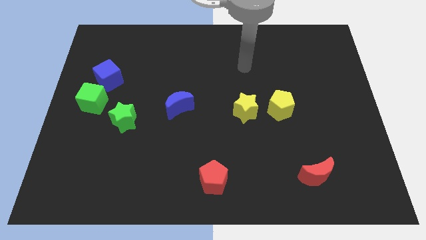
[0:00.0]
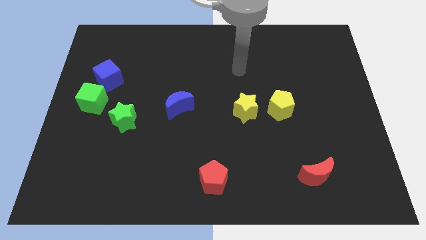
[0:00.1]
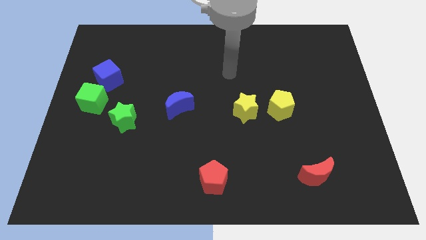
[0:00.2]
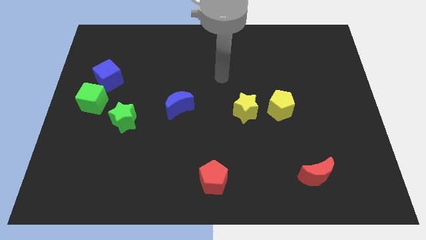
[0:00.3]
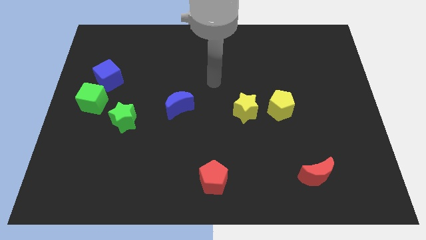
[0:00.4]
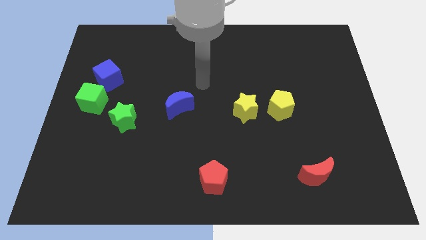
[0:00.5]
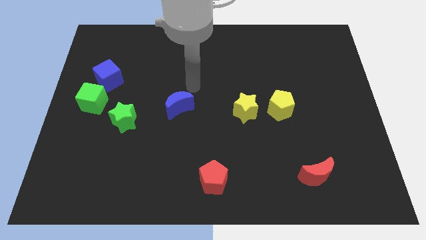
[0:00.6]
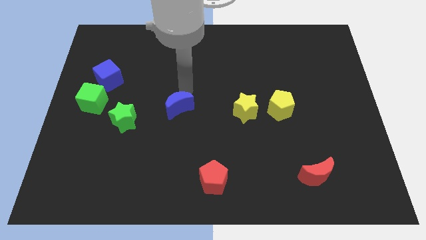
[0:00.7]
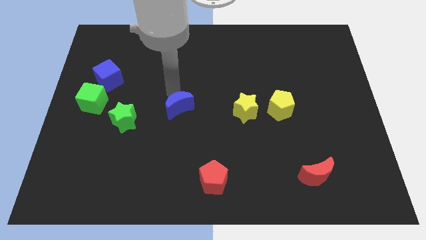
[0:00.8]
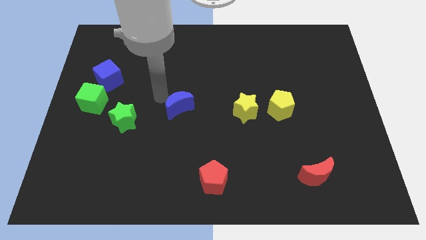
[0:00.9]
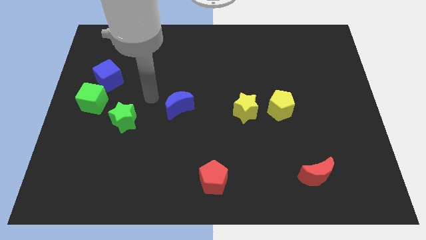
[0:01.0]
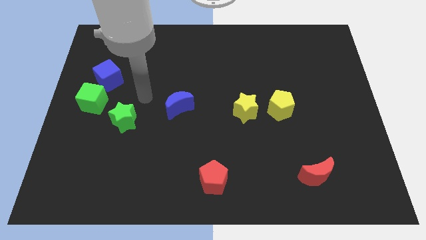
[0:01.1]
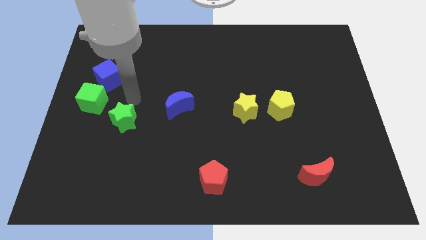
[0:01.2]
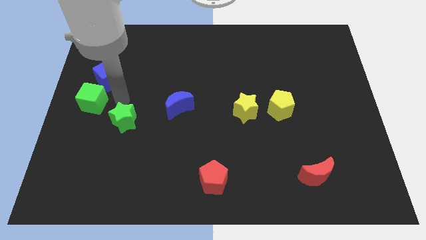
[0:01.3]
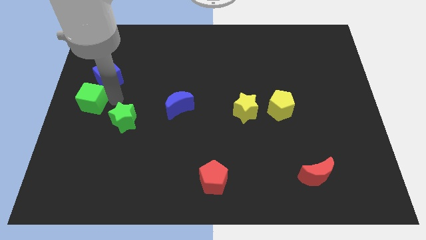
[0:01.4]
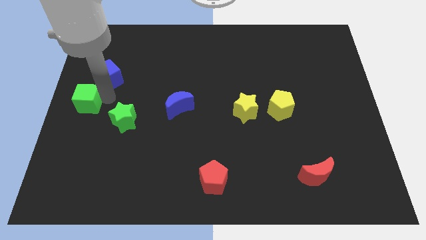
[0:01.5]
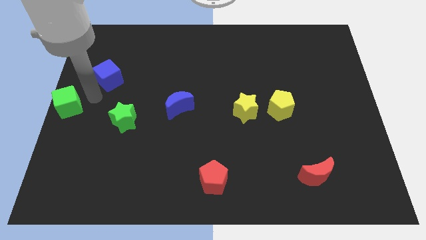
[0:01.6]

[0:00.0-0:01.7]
pull the blue cube apart from the green cube

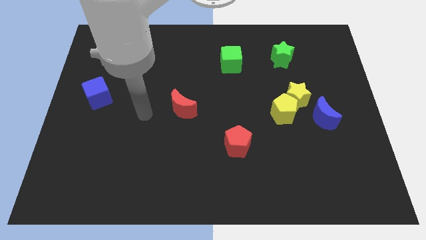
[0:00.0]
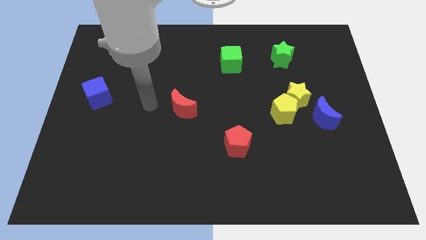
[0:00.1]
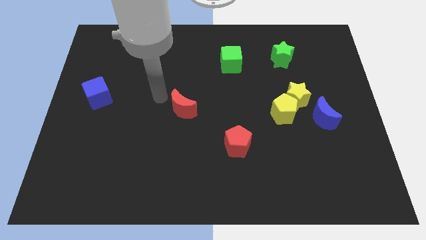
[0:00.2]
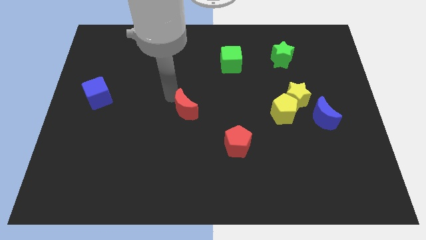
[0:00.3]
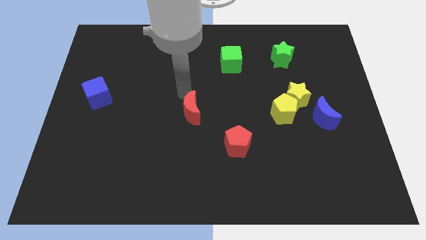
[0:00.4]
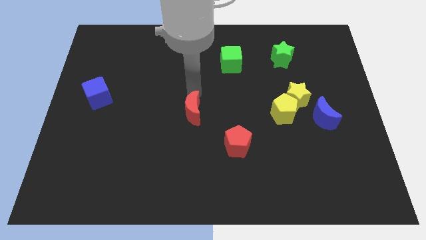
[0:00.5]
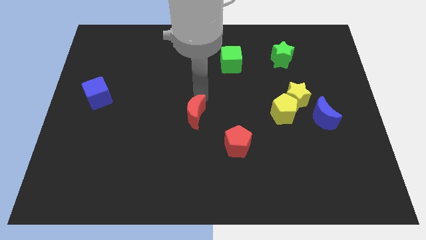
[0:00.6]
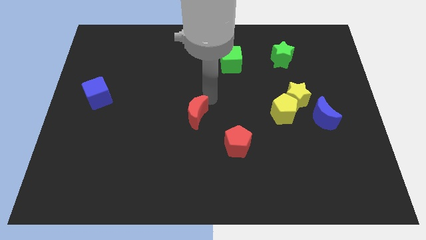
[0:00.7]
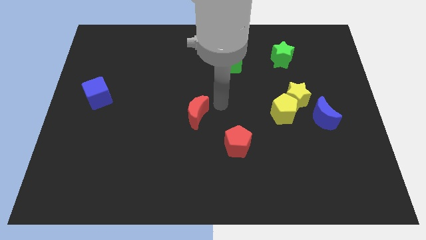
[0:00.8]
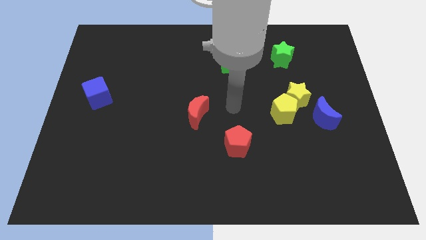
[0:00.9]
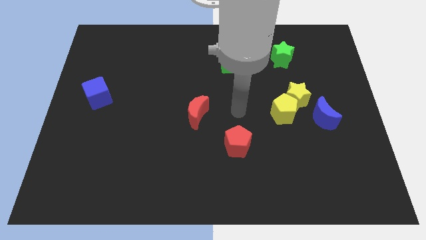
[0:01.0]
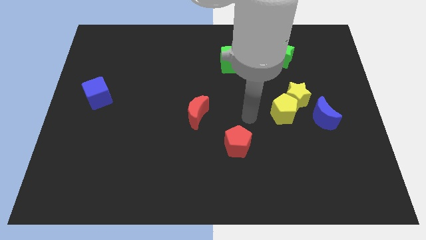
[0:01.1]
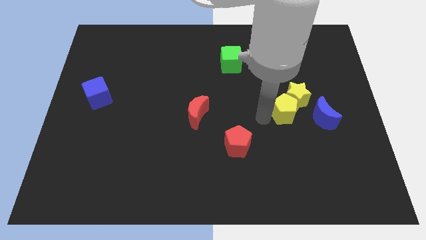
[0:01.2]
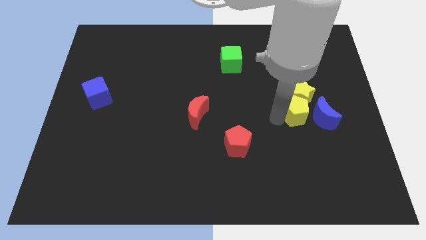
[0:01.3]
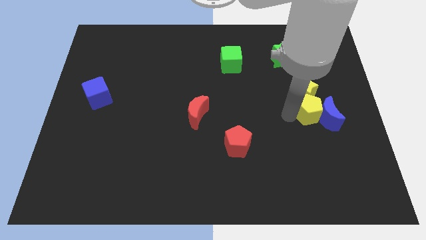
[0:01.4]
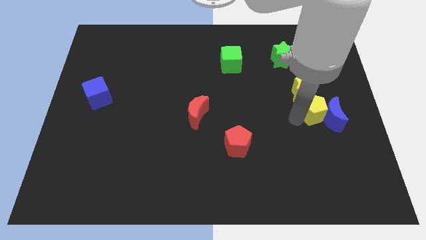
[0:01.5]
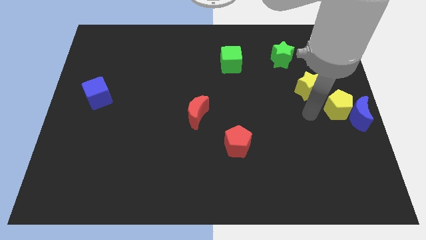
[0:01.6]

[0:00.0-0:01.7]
separate the yellow star from the yellow pentagon and blue moon

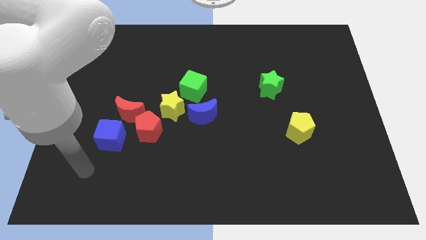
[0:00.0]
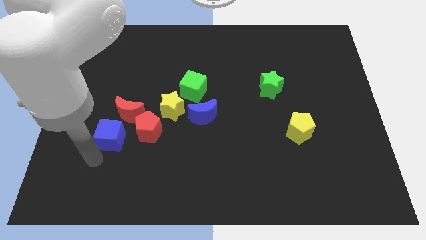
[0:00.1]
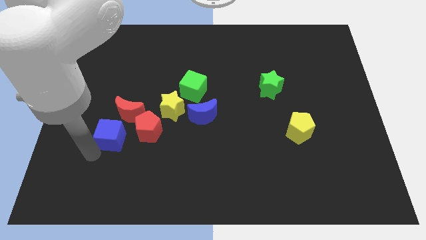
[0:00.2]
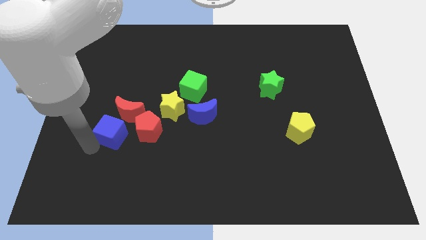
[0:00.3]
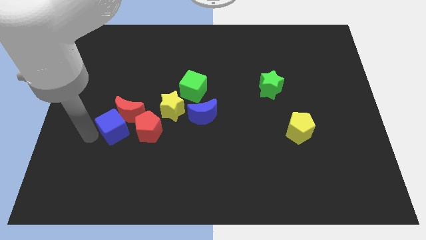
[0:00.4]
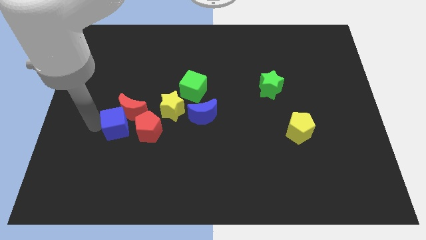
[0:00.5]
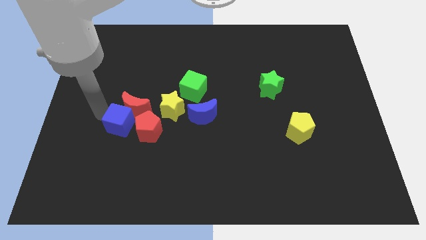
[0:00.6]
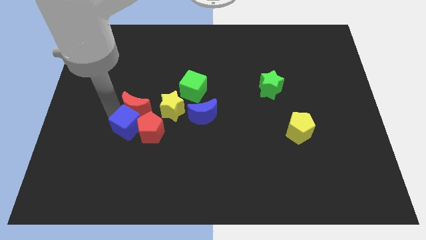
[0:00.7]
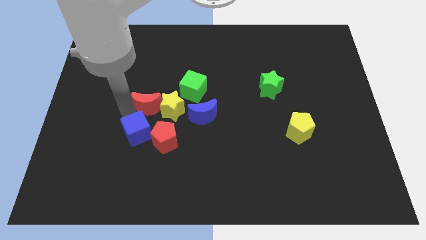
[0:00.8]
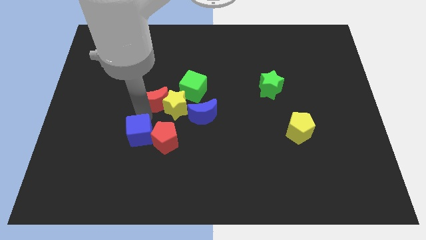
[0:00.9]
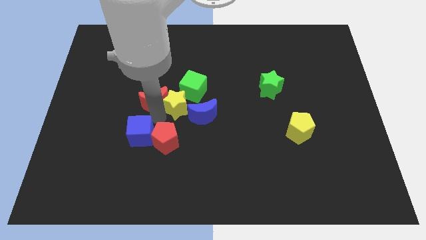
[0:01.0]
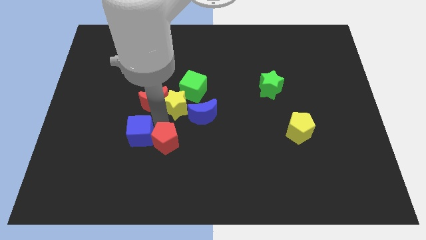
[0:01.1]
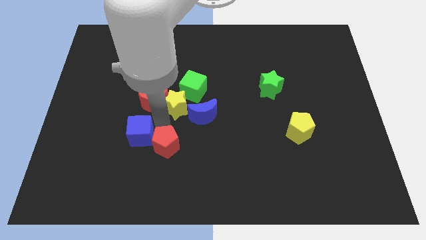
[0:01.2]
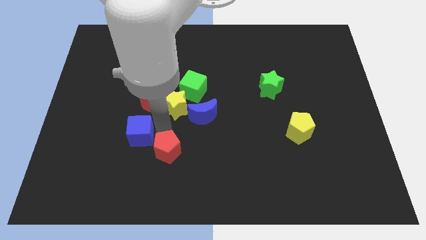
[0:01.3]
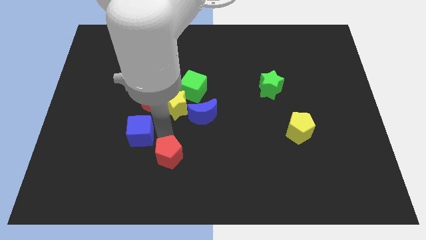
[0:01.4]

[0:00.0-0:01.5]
pull the red pentagon apart from the red moon, yellow star, and blue cube

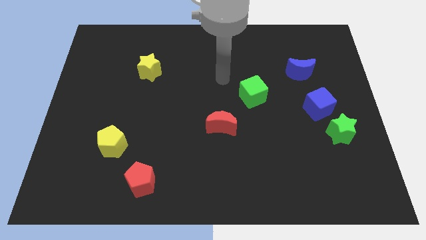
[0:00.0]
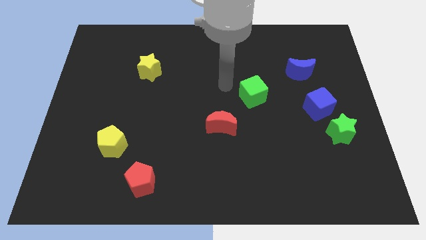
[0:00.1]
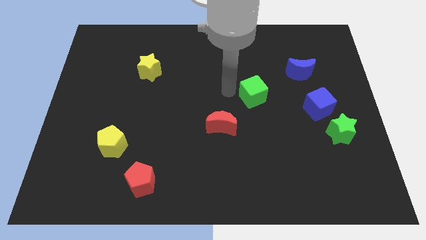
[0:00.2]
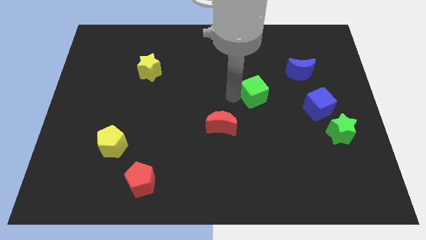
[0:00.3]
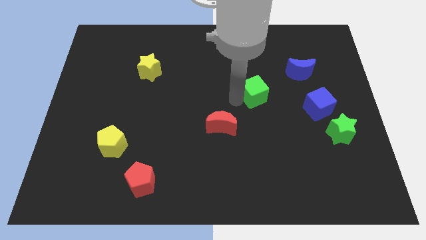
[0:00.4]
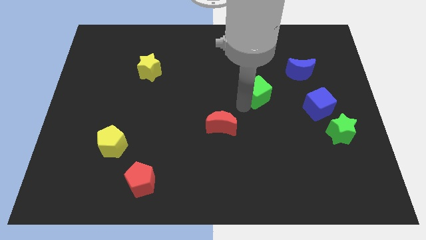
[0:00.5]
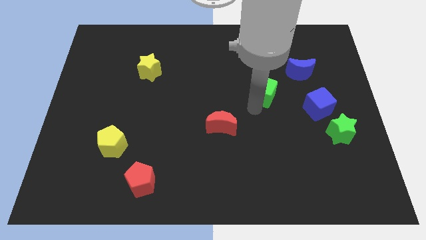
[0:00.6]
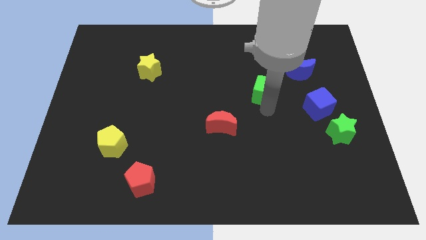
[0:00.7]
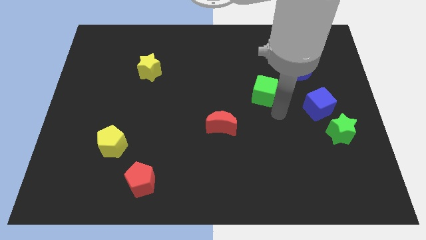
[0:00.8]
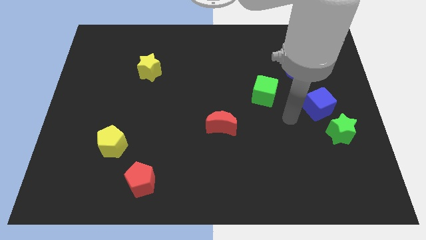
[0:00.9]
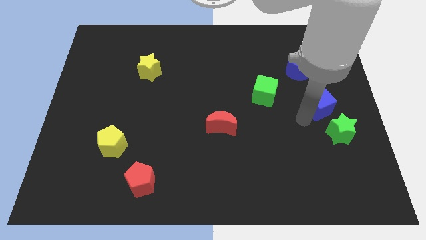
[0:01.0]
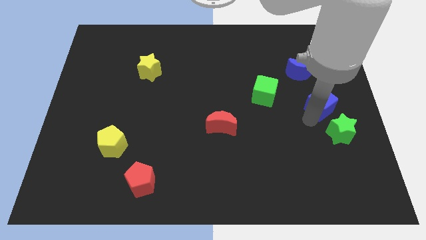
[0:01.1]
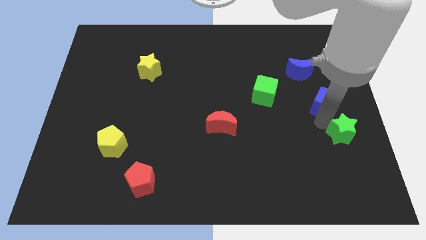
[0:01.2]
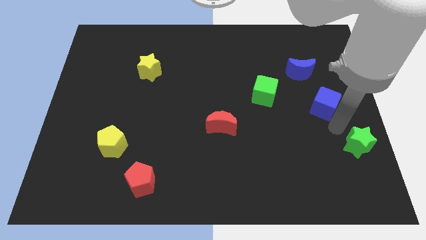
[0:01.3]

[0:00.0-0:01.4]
move the blue cube away from the green star

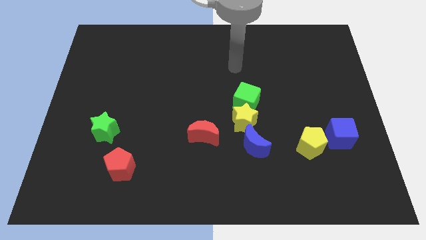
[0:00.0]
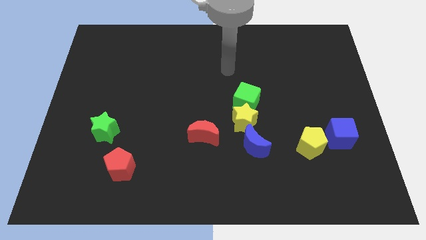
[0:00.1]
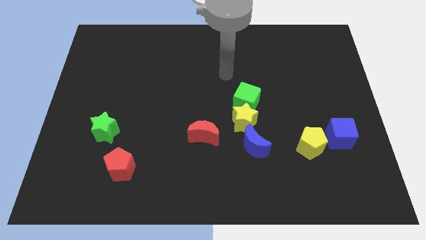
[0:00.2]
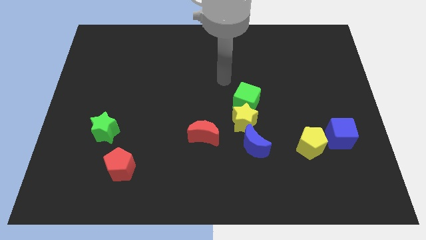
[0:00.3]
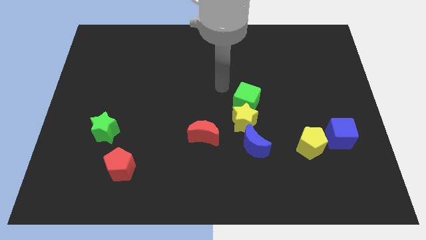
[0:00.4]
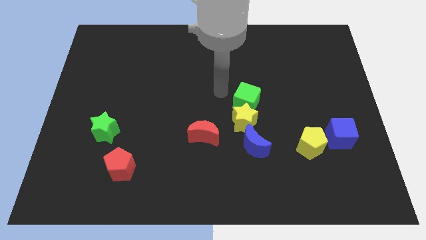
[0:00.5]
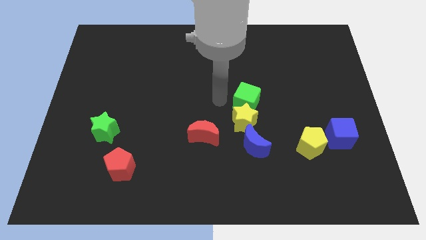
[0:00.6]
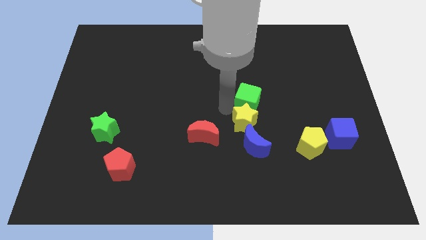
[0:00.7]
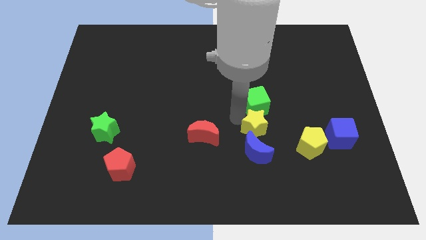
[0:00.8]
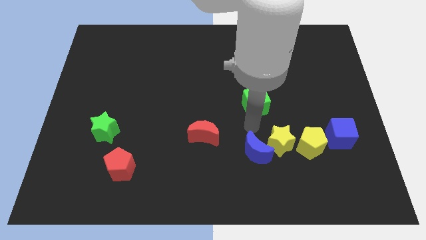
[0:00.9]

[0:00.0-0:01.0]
pull the green cube apart from the yellow star

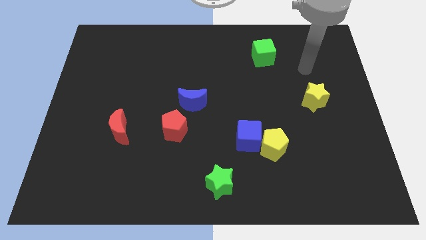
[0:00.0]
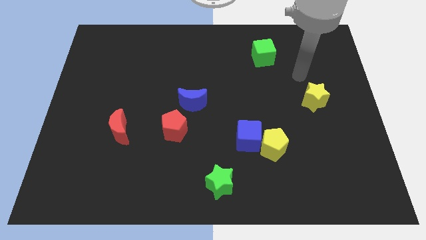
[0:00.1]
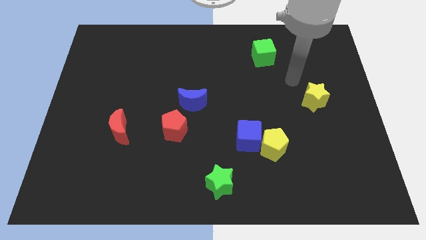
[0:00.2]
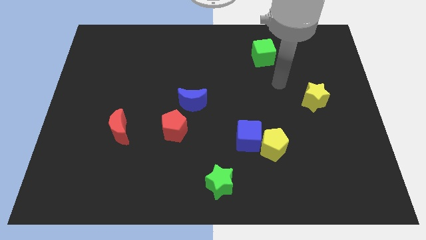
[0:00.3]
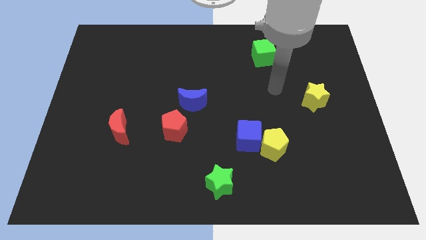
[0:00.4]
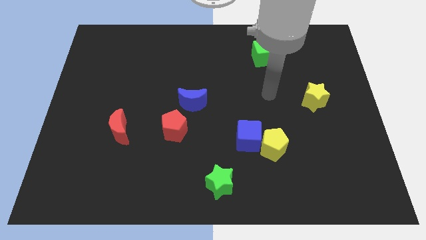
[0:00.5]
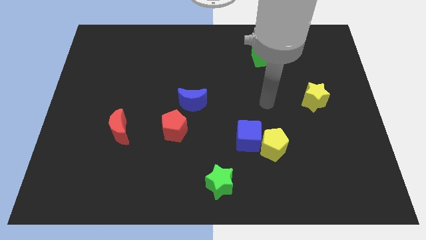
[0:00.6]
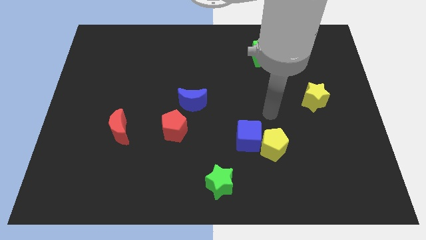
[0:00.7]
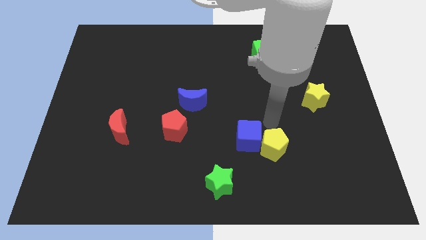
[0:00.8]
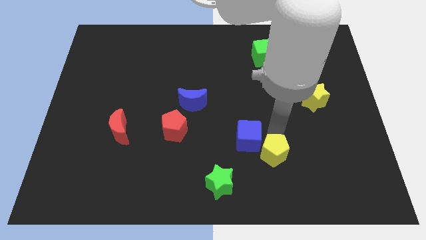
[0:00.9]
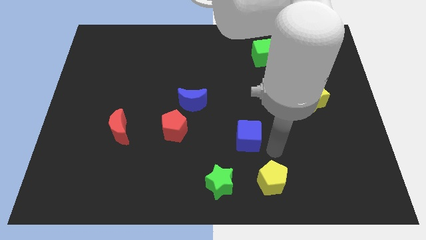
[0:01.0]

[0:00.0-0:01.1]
separate the blue cube from the yellow pentagon

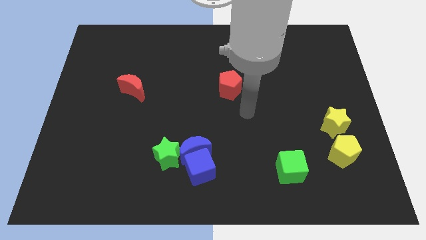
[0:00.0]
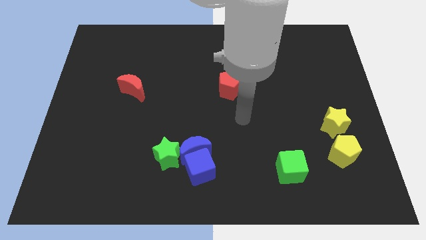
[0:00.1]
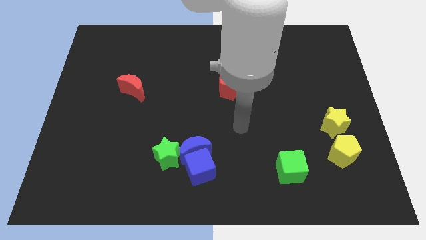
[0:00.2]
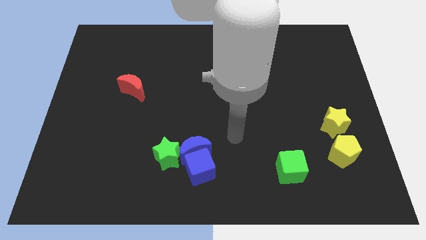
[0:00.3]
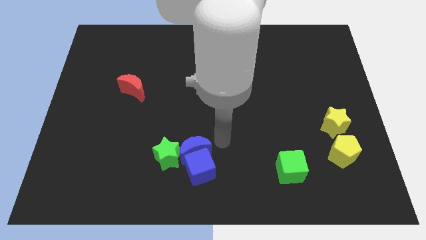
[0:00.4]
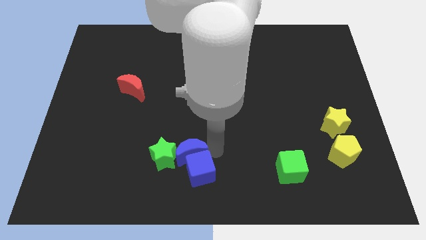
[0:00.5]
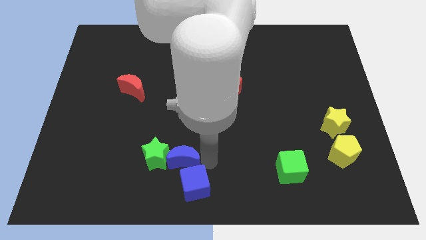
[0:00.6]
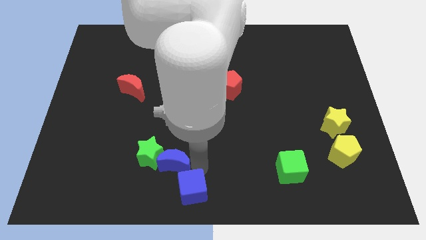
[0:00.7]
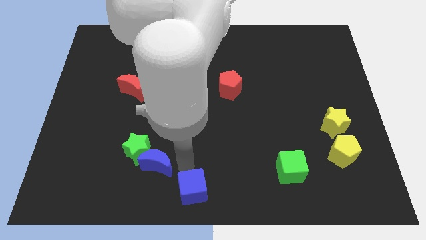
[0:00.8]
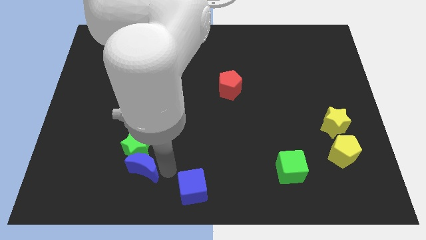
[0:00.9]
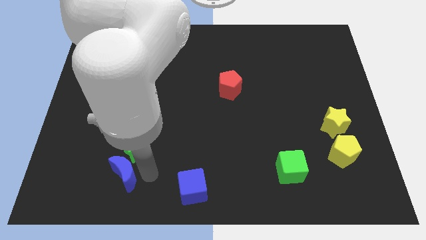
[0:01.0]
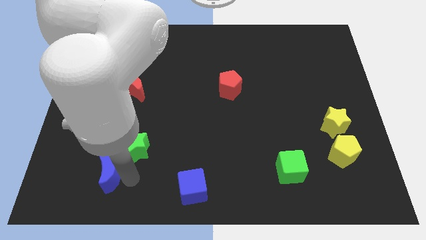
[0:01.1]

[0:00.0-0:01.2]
move the blue moon away from the blue cube and green star
